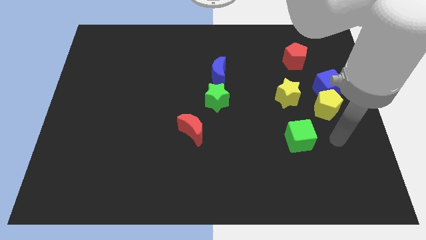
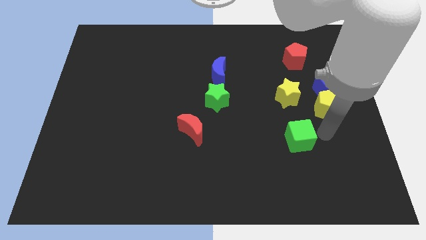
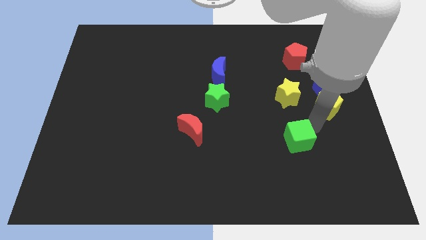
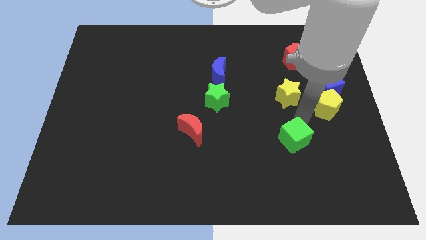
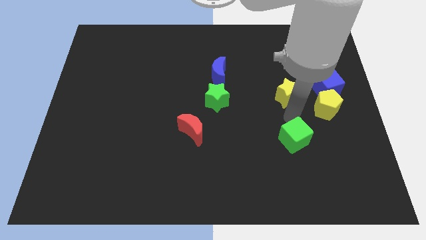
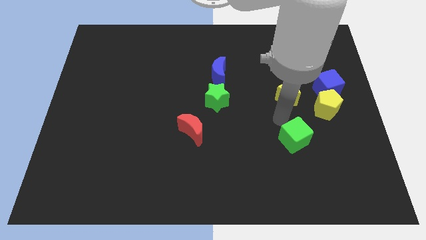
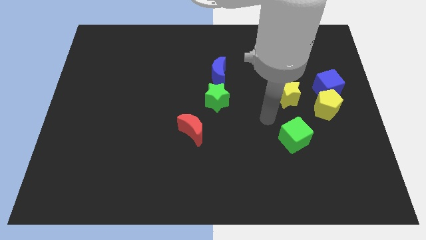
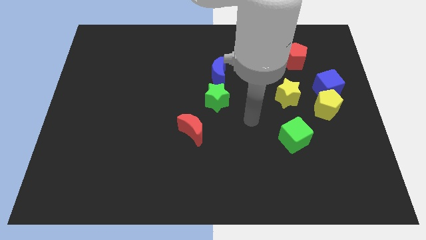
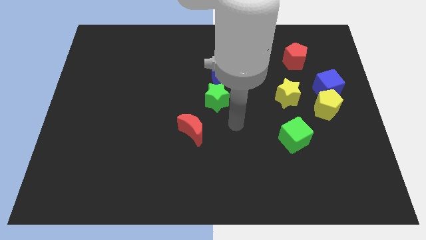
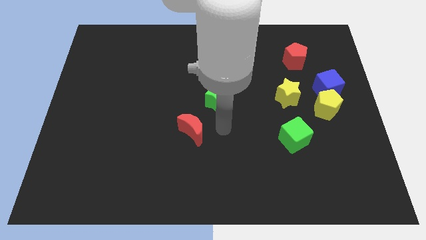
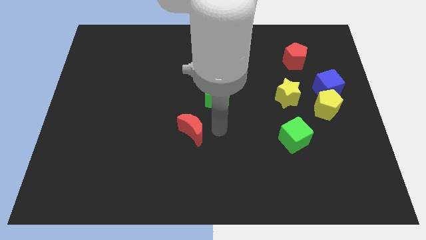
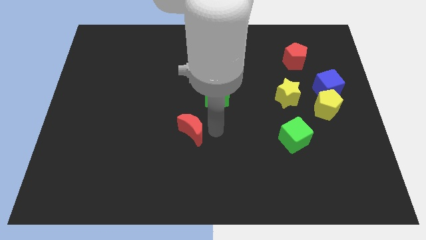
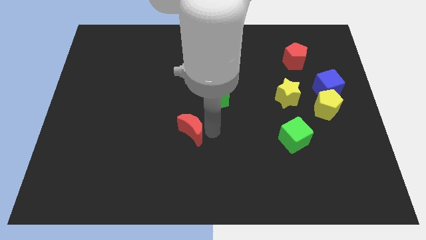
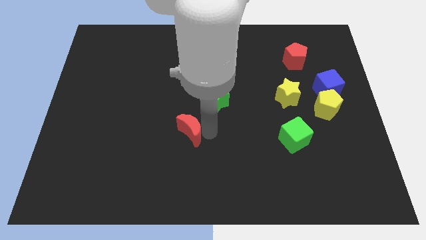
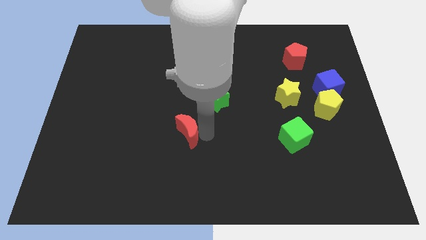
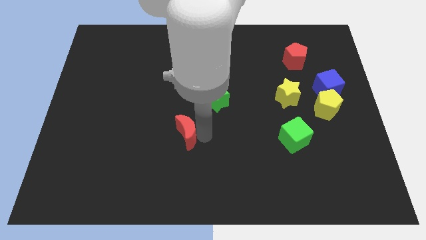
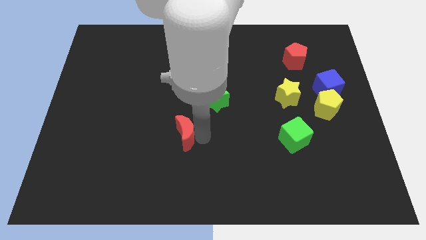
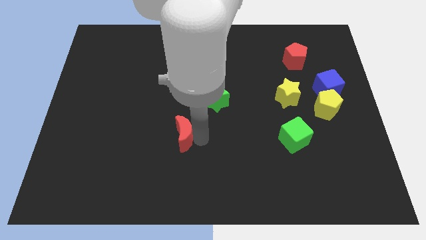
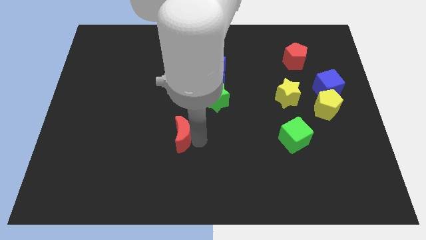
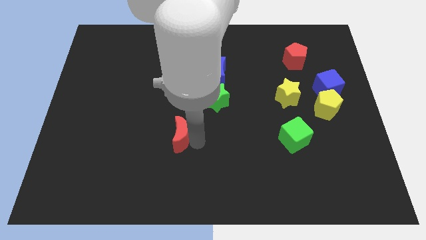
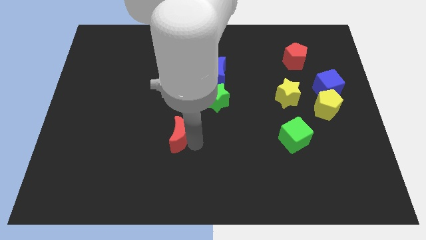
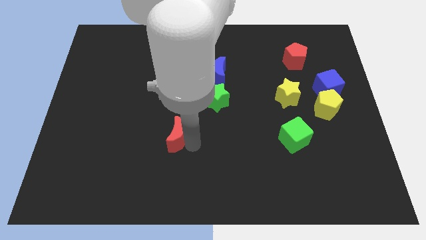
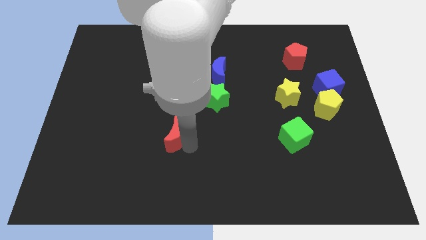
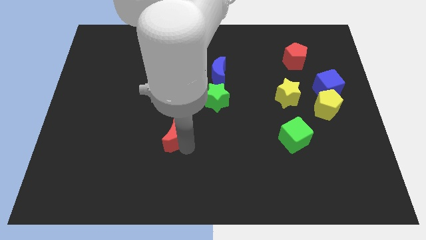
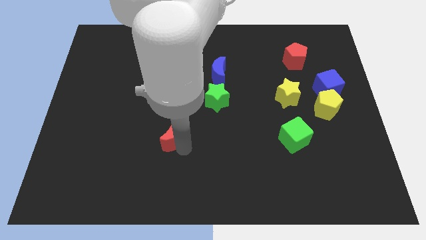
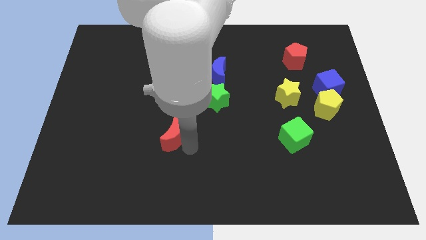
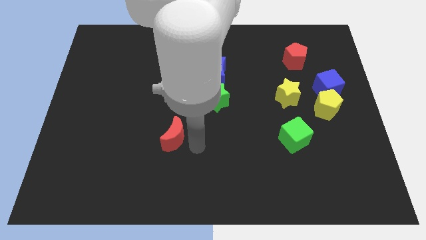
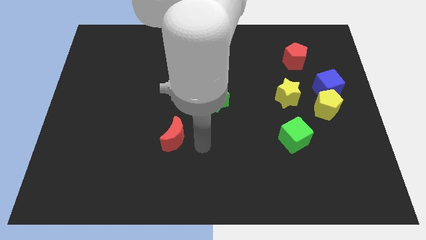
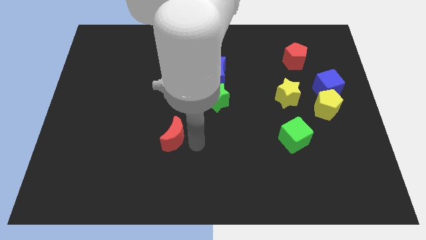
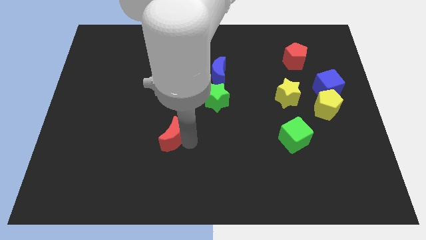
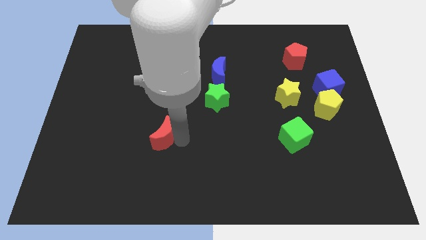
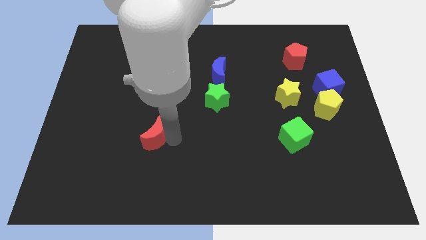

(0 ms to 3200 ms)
move the red moon a bit left

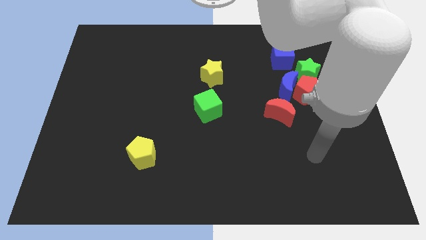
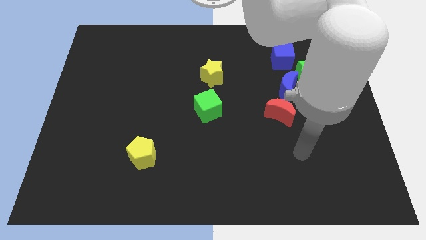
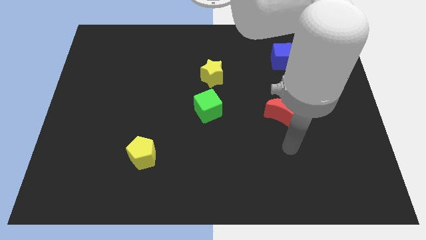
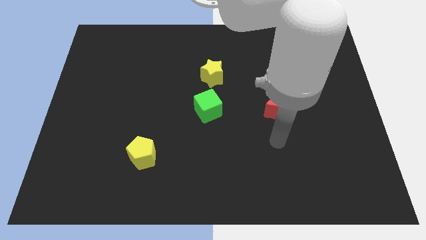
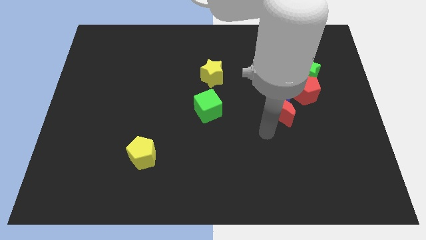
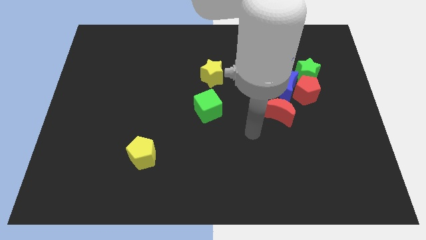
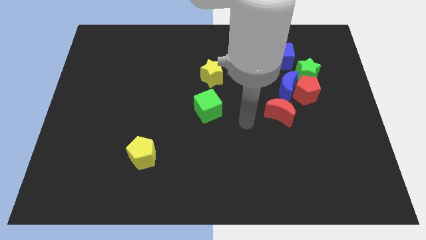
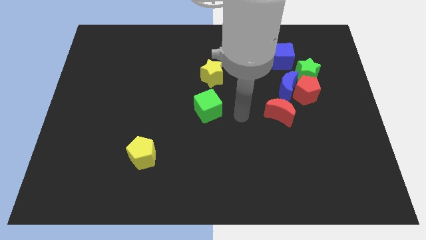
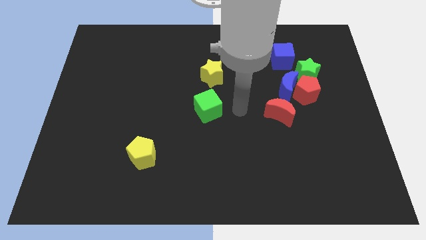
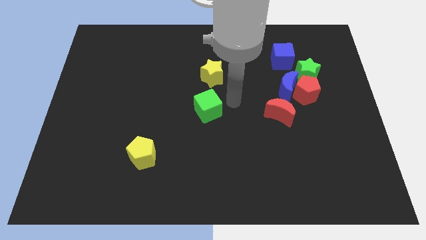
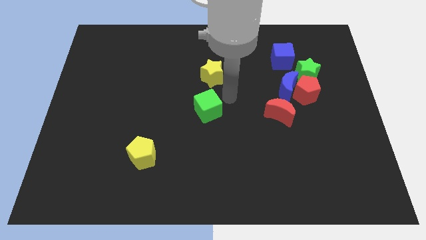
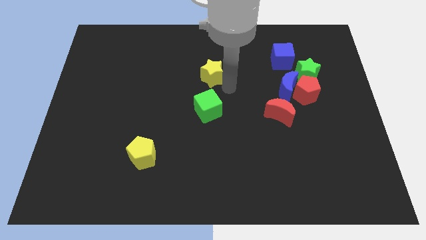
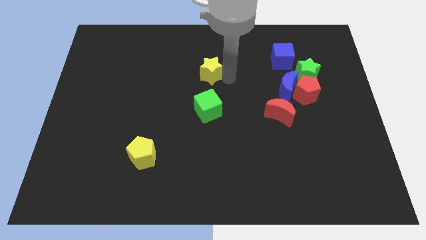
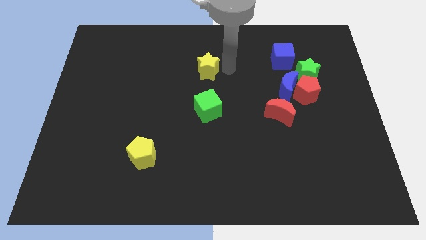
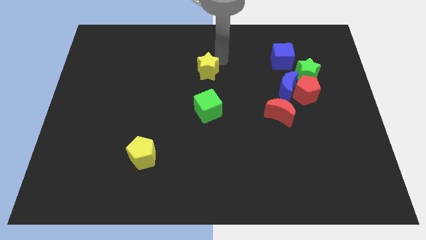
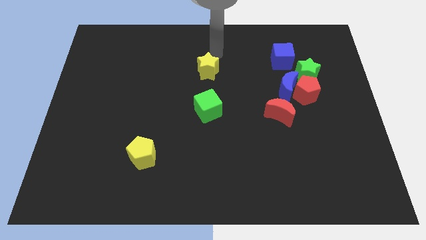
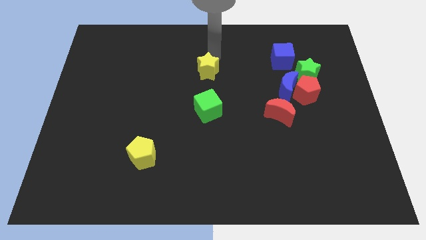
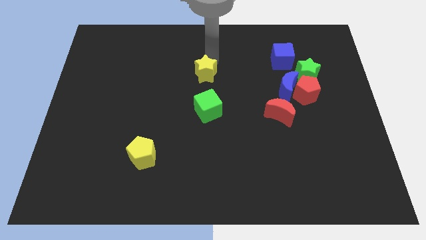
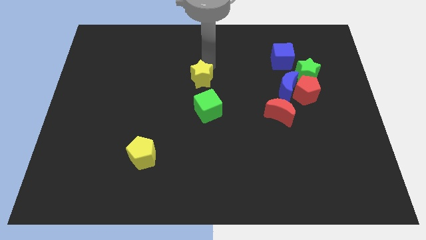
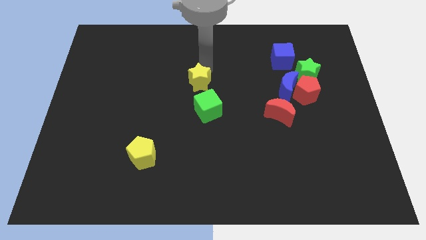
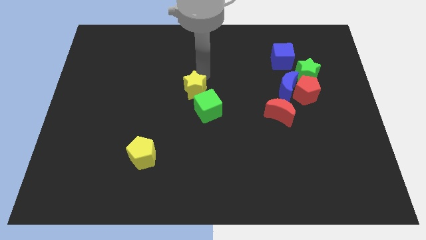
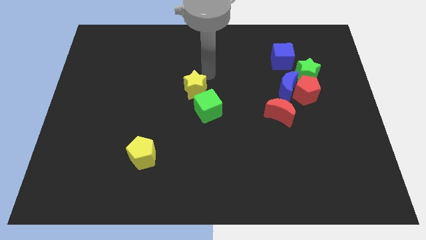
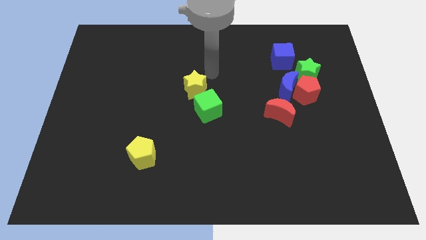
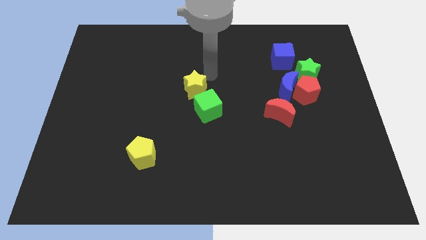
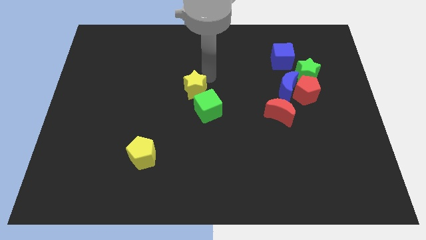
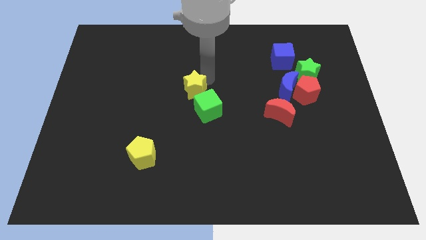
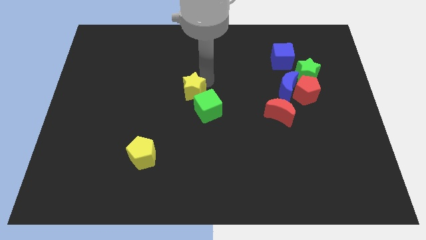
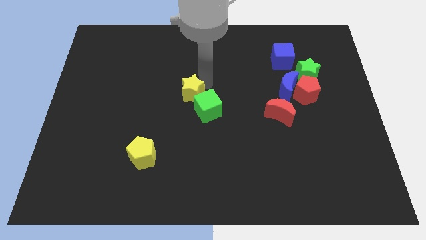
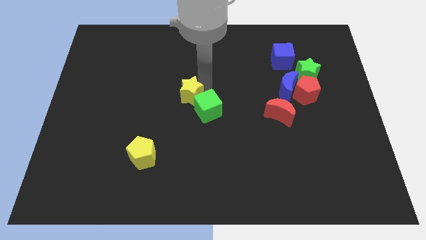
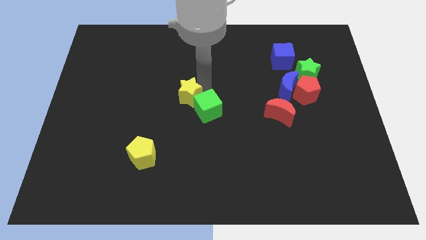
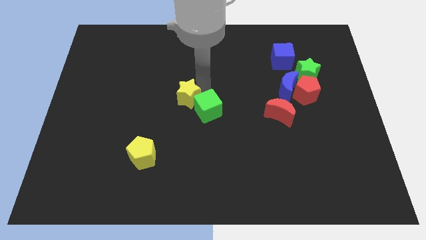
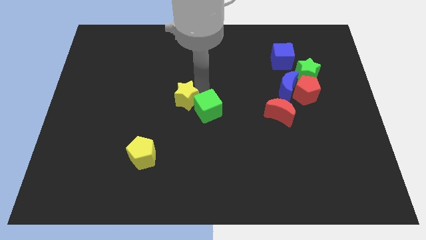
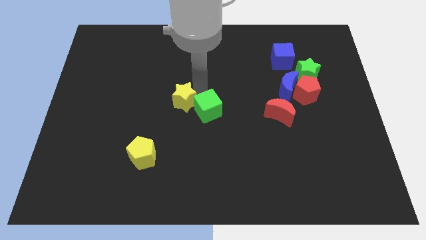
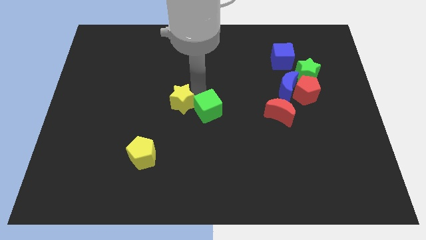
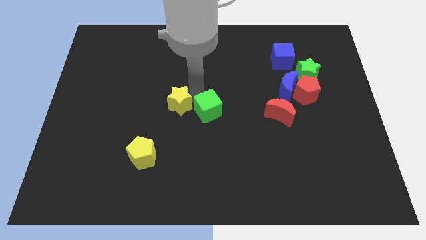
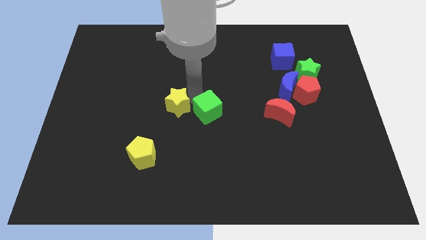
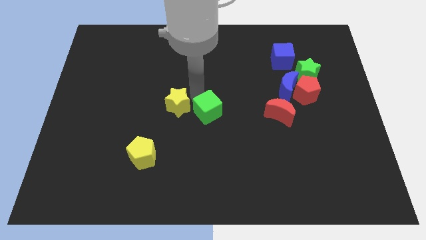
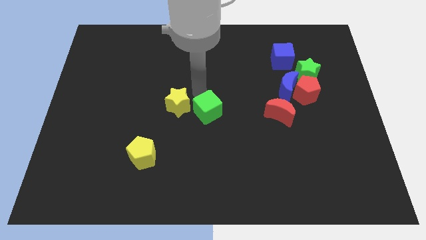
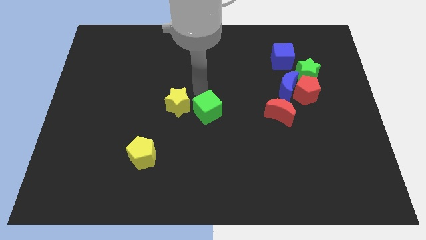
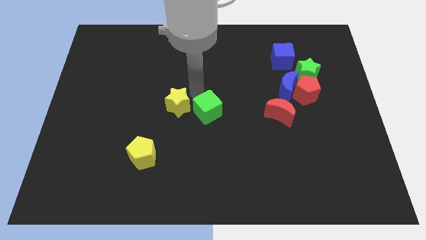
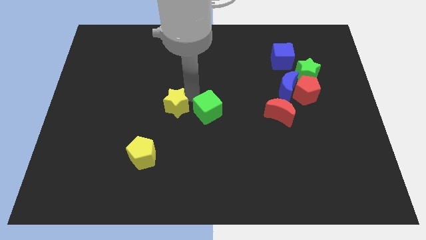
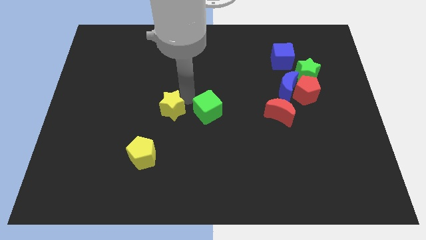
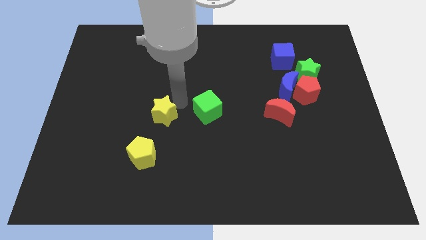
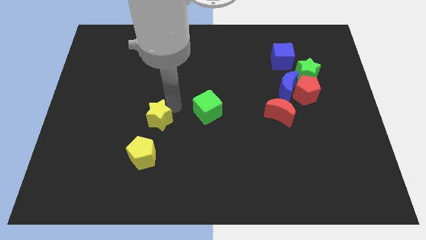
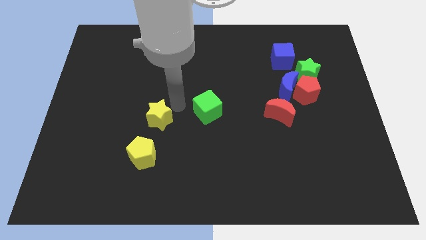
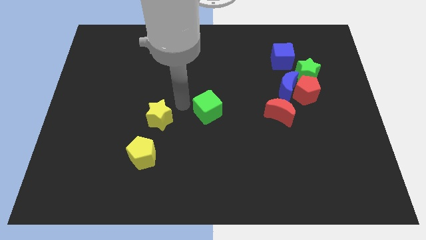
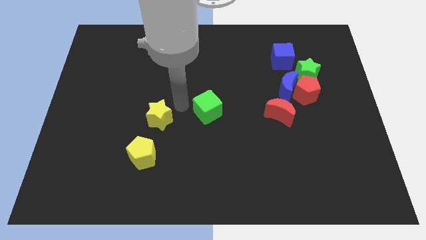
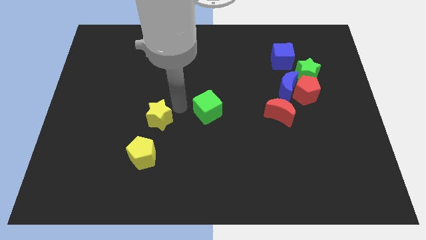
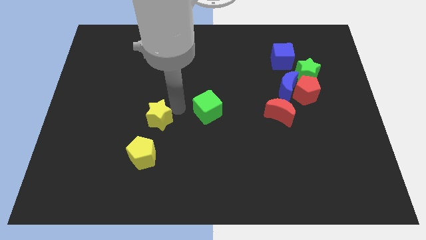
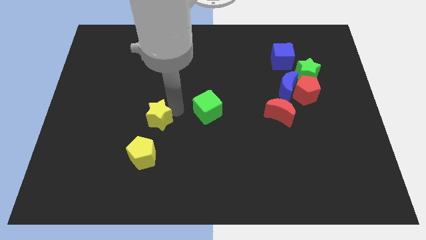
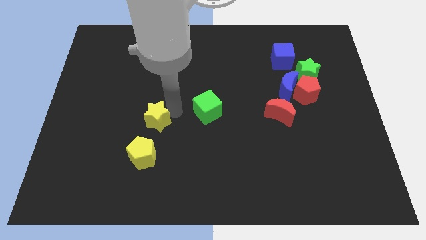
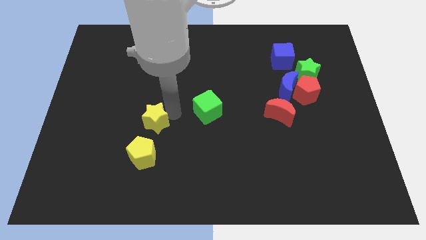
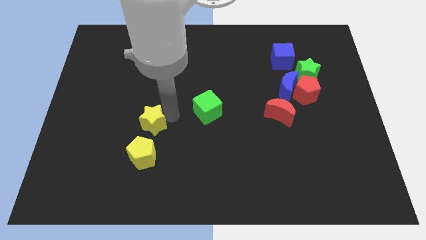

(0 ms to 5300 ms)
push the yellow star down and then left
